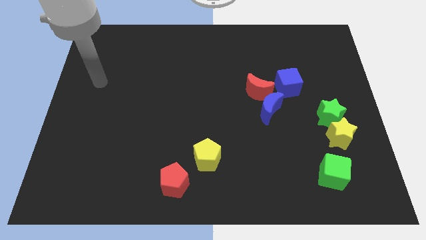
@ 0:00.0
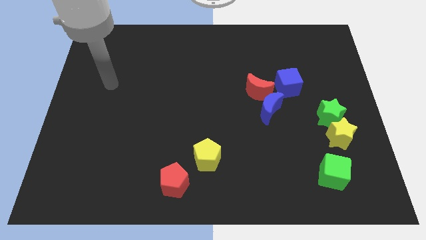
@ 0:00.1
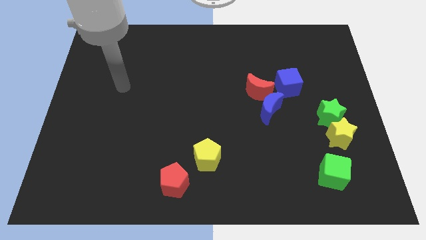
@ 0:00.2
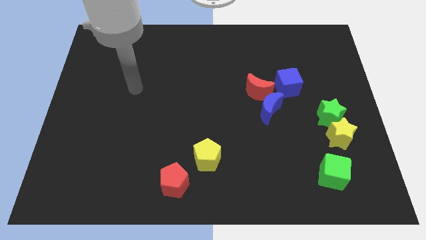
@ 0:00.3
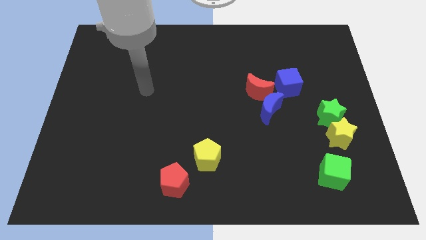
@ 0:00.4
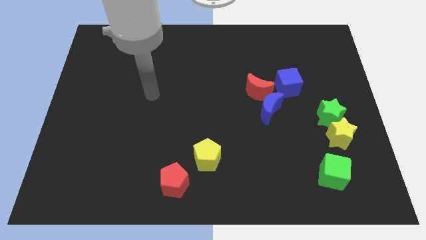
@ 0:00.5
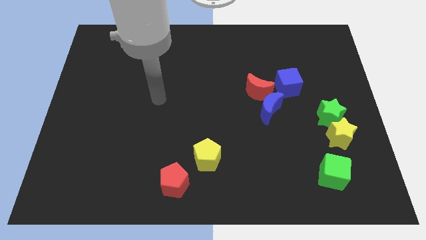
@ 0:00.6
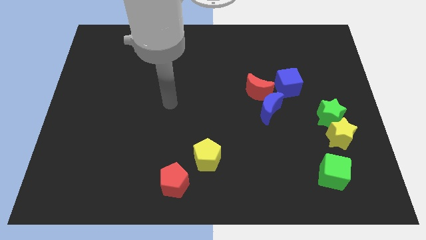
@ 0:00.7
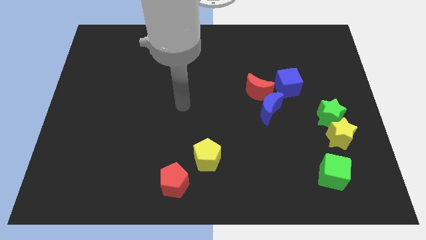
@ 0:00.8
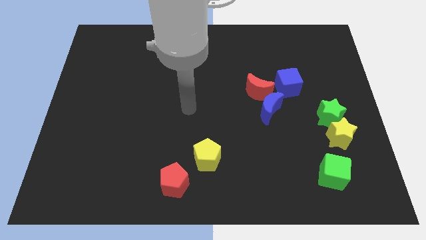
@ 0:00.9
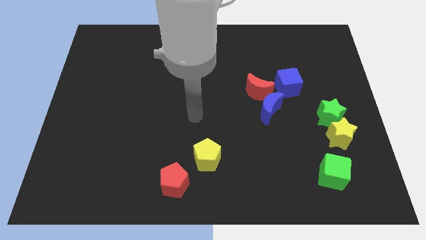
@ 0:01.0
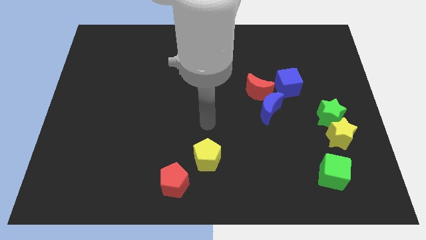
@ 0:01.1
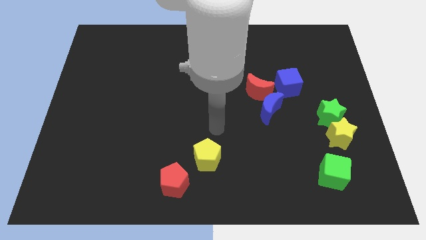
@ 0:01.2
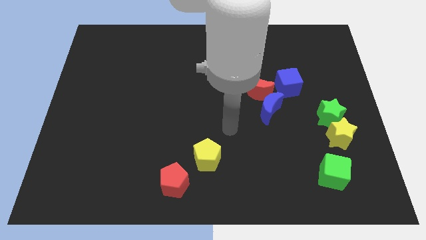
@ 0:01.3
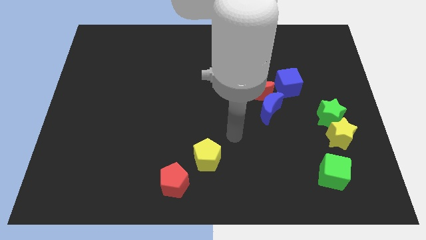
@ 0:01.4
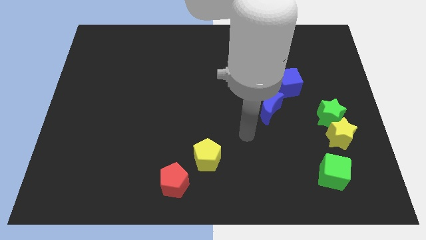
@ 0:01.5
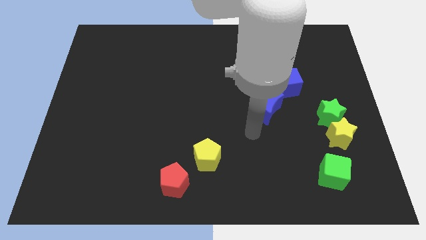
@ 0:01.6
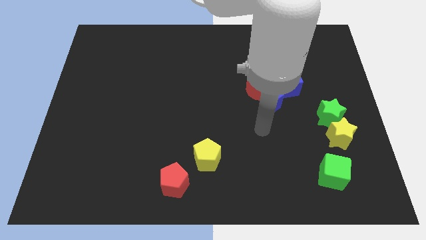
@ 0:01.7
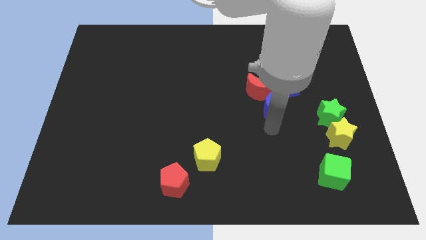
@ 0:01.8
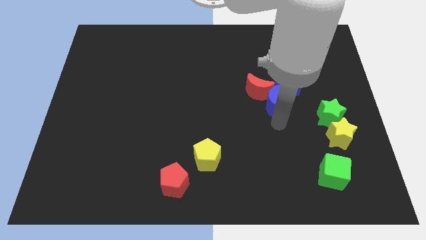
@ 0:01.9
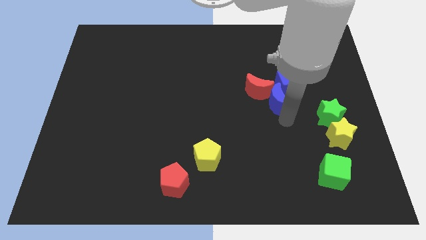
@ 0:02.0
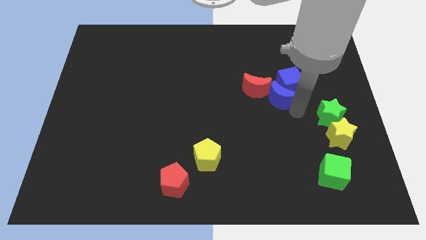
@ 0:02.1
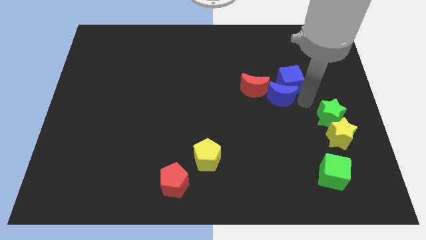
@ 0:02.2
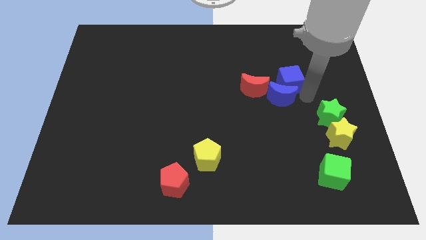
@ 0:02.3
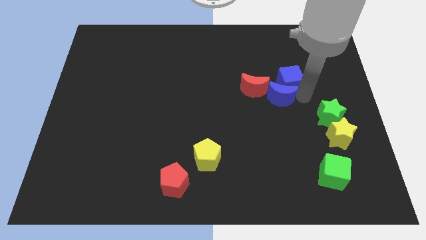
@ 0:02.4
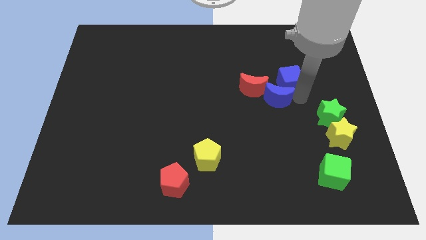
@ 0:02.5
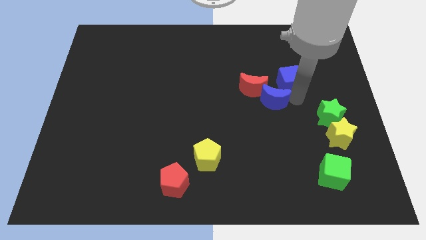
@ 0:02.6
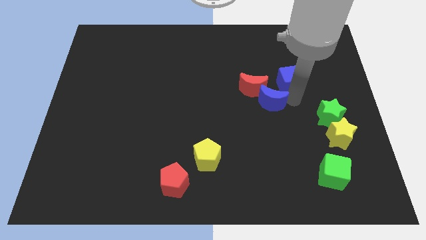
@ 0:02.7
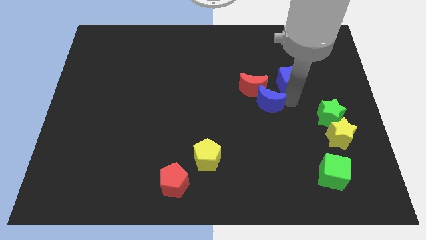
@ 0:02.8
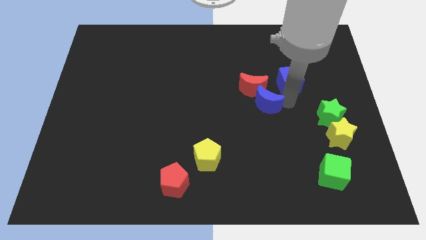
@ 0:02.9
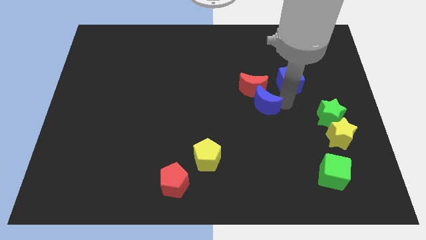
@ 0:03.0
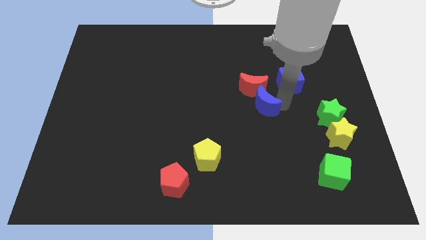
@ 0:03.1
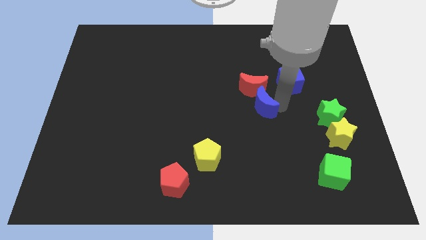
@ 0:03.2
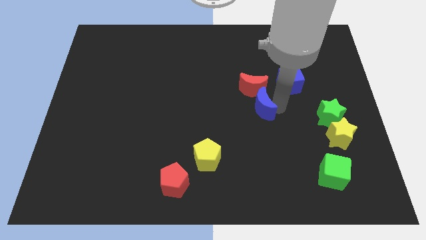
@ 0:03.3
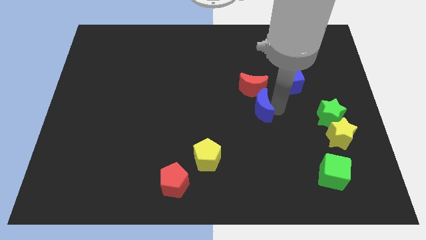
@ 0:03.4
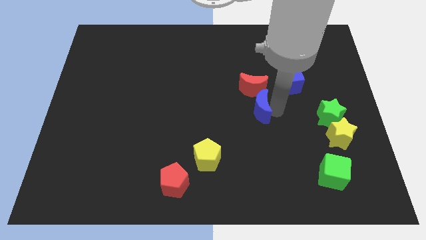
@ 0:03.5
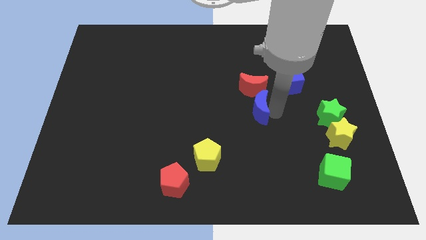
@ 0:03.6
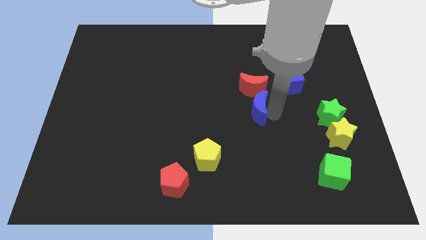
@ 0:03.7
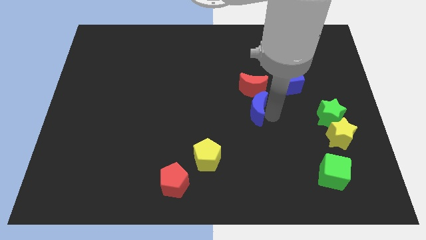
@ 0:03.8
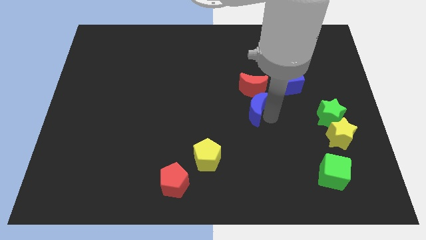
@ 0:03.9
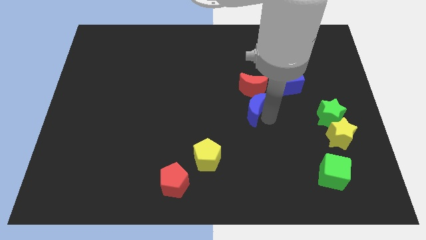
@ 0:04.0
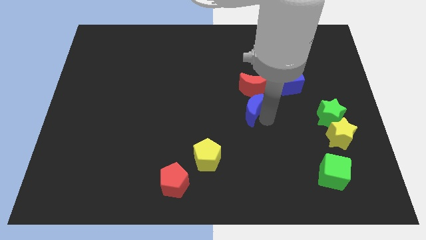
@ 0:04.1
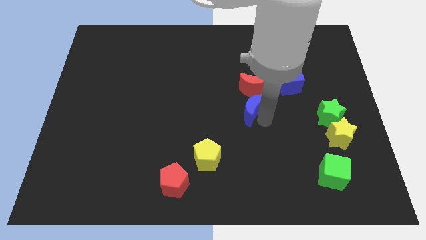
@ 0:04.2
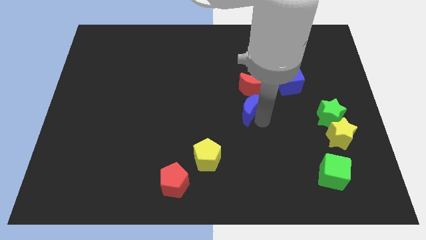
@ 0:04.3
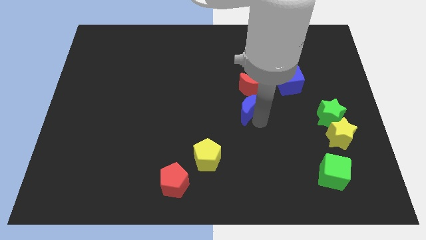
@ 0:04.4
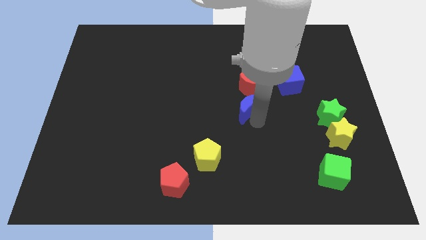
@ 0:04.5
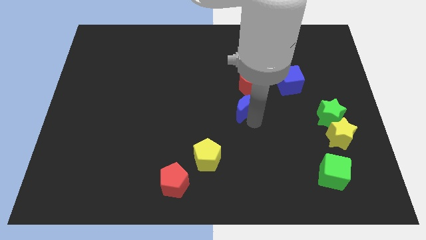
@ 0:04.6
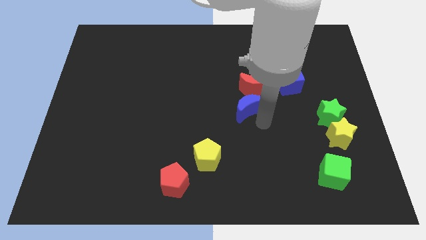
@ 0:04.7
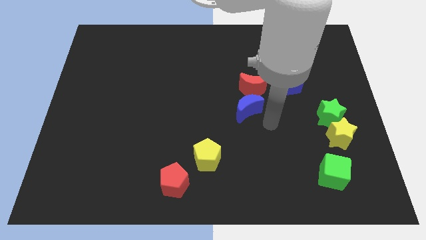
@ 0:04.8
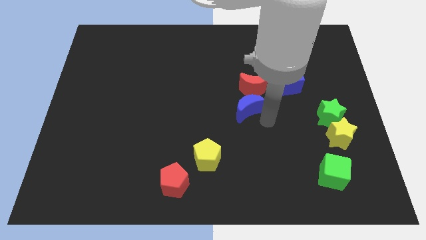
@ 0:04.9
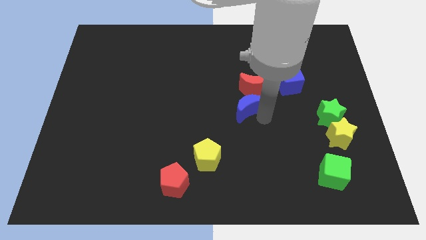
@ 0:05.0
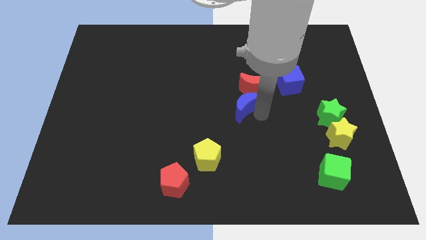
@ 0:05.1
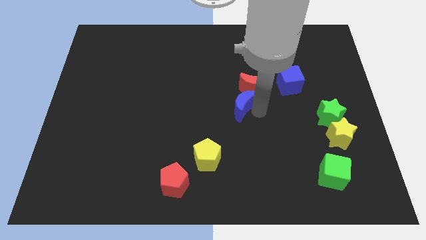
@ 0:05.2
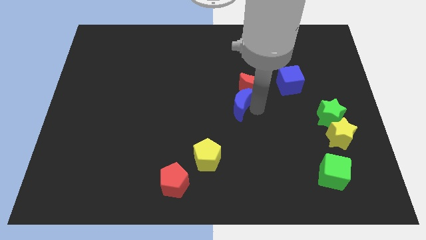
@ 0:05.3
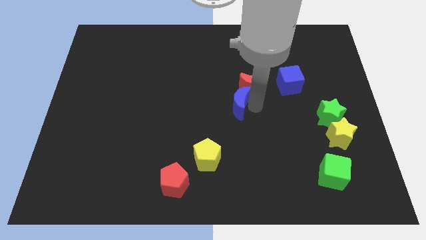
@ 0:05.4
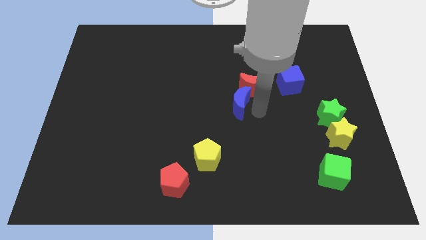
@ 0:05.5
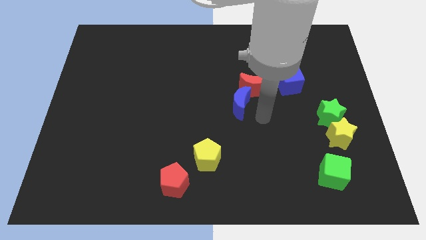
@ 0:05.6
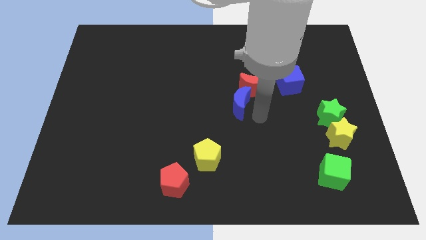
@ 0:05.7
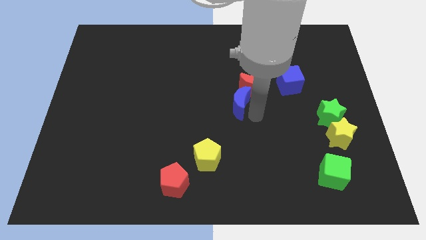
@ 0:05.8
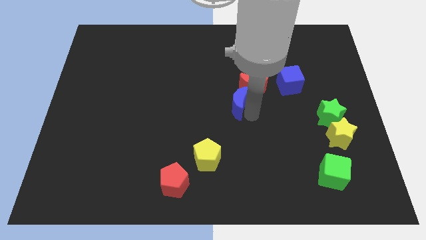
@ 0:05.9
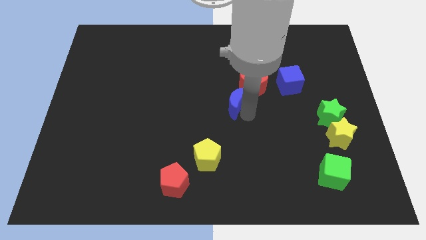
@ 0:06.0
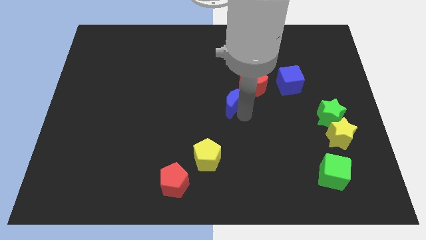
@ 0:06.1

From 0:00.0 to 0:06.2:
slide the blue moon left of the red moon
